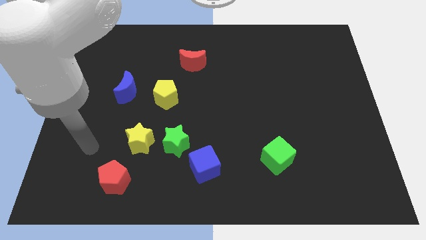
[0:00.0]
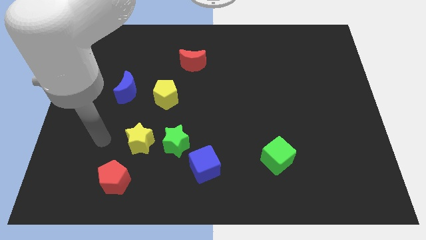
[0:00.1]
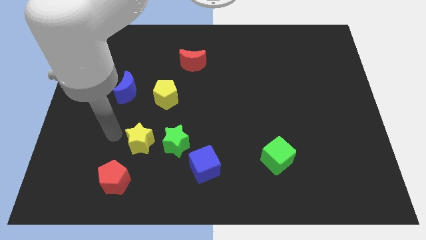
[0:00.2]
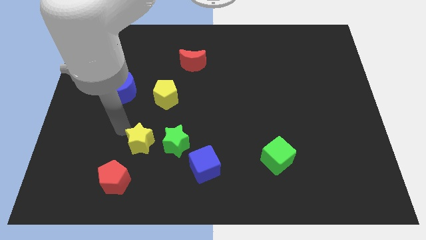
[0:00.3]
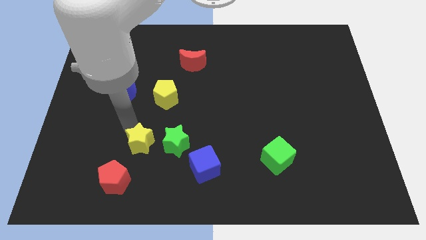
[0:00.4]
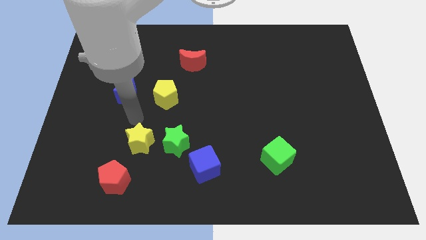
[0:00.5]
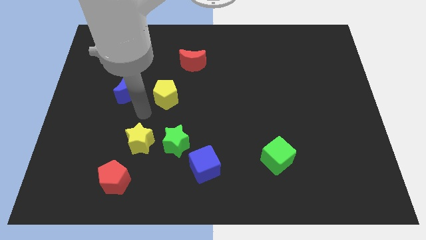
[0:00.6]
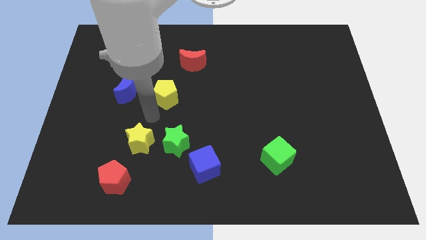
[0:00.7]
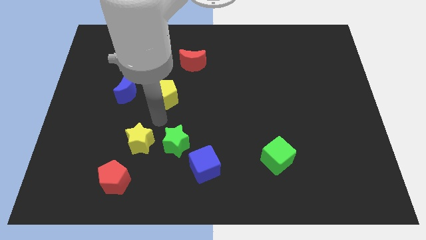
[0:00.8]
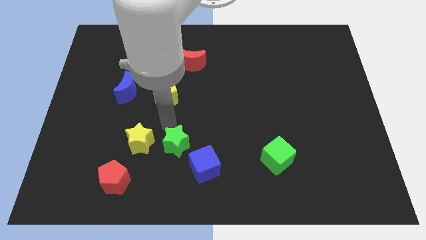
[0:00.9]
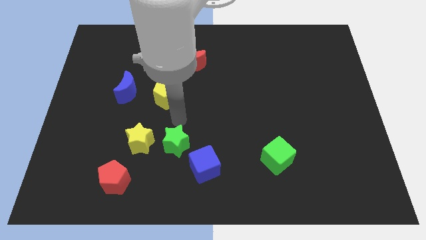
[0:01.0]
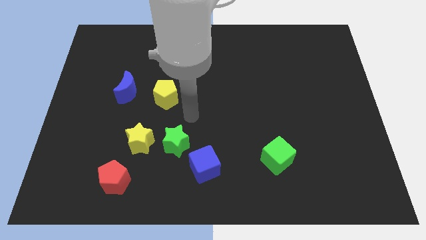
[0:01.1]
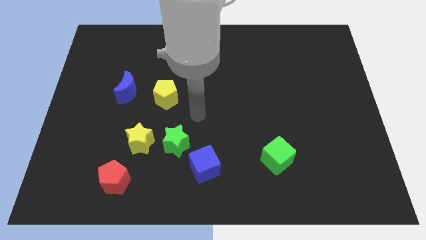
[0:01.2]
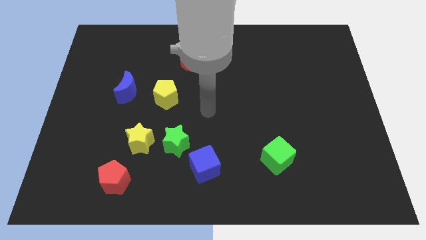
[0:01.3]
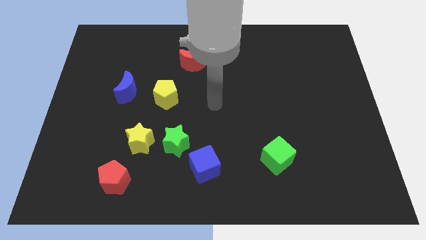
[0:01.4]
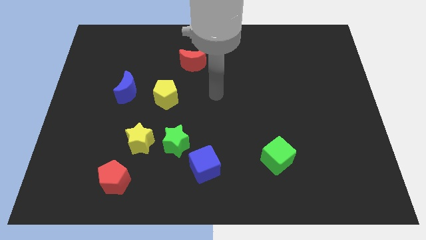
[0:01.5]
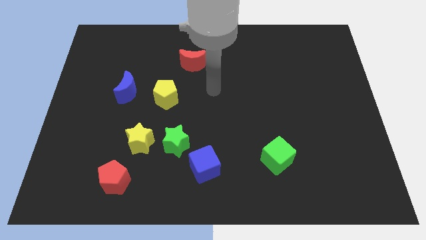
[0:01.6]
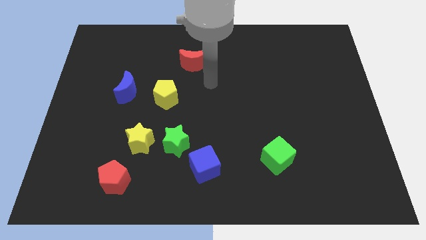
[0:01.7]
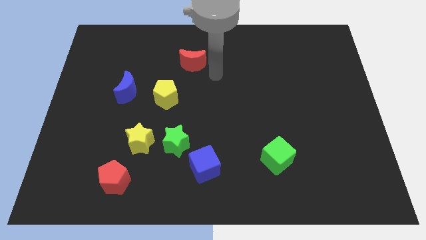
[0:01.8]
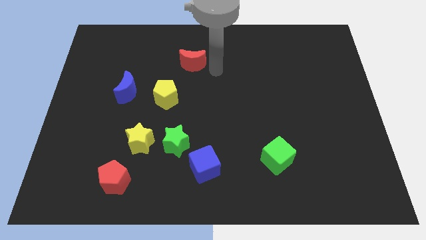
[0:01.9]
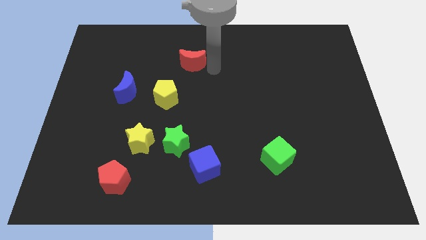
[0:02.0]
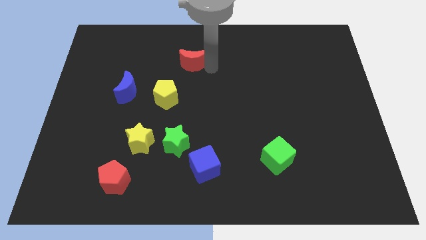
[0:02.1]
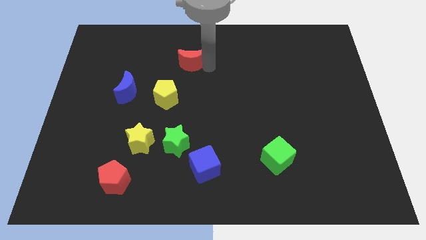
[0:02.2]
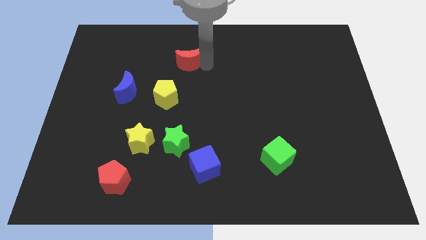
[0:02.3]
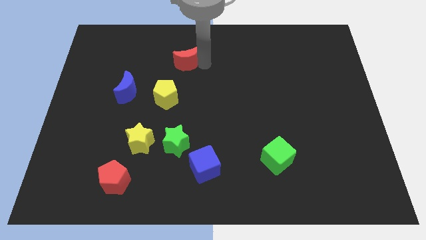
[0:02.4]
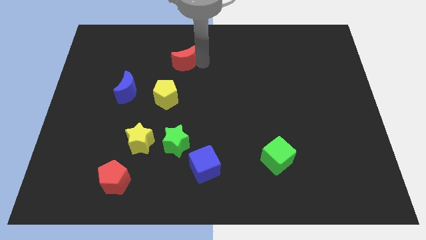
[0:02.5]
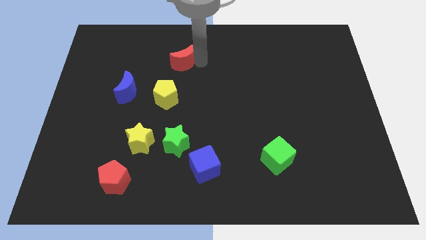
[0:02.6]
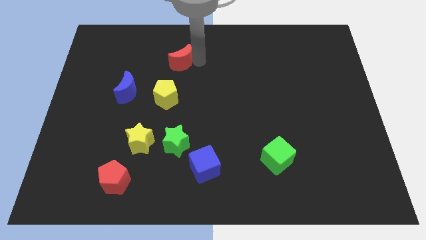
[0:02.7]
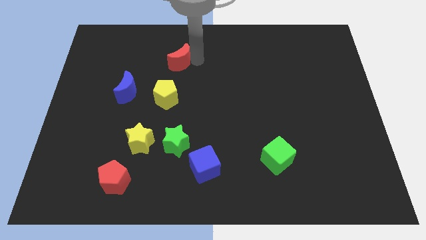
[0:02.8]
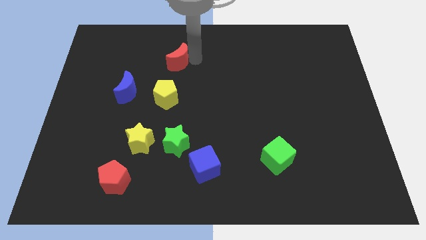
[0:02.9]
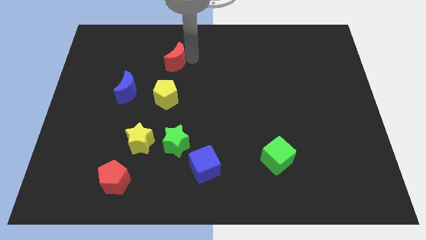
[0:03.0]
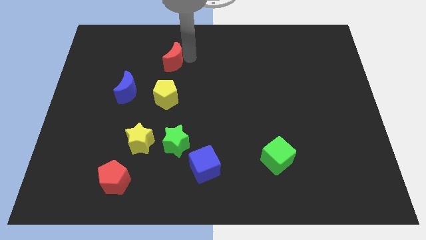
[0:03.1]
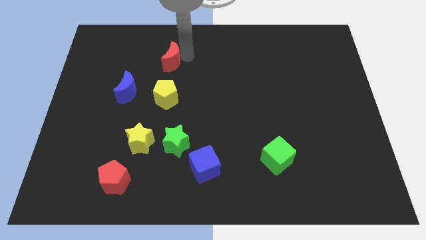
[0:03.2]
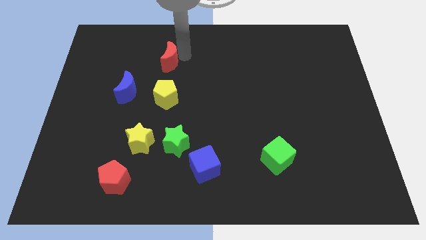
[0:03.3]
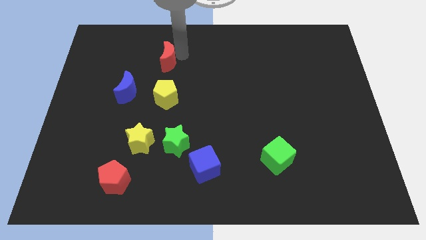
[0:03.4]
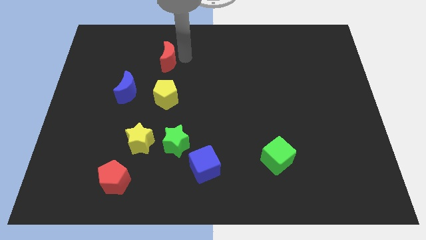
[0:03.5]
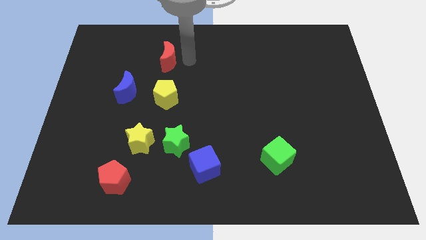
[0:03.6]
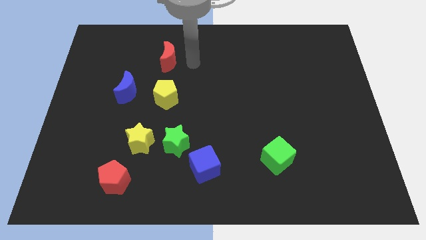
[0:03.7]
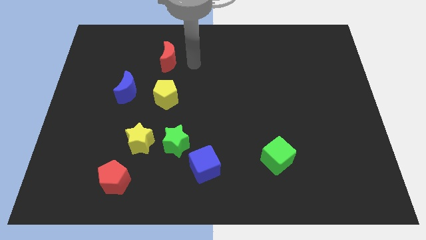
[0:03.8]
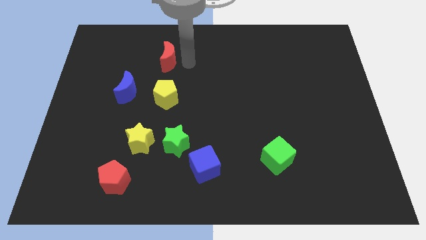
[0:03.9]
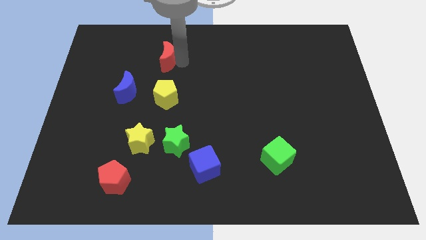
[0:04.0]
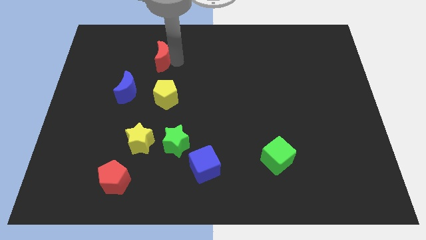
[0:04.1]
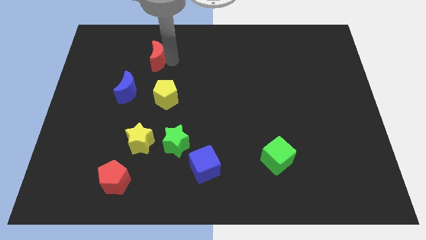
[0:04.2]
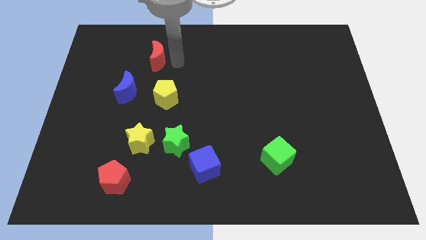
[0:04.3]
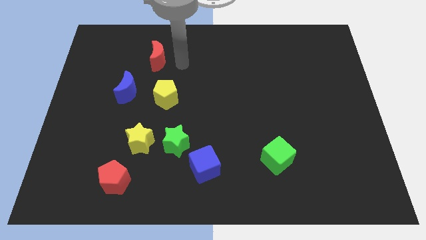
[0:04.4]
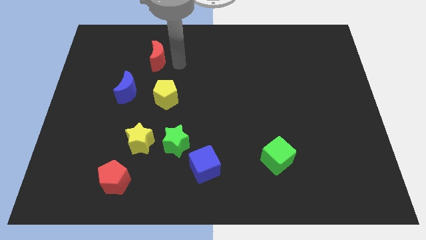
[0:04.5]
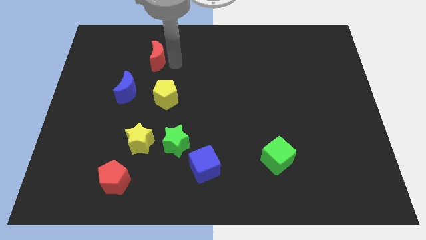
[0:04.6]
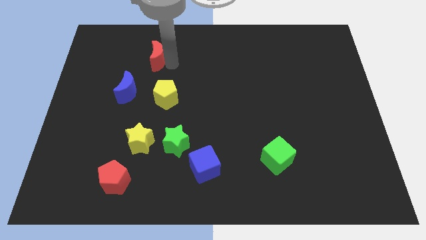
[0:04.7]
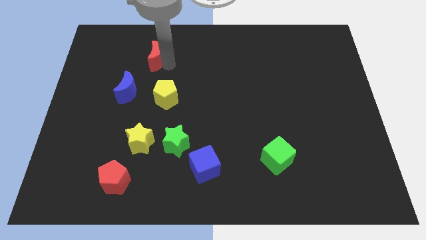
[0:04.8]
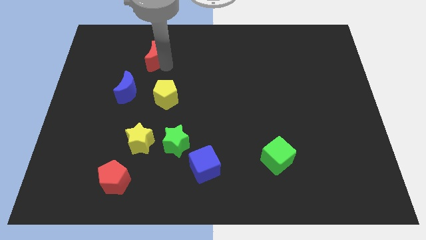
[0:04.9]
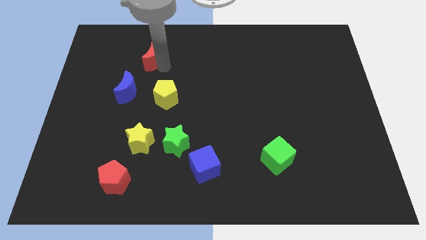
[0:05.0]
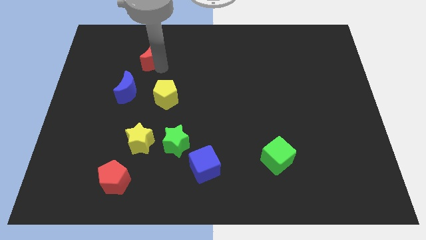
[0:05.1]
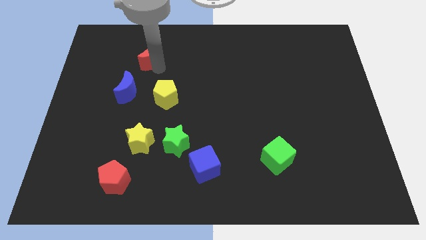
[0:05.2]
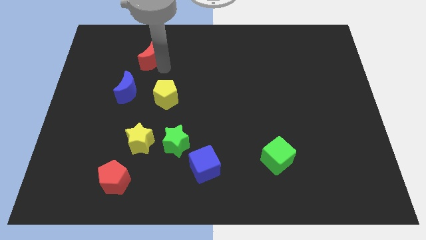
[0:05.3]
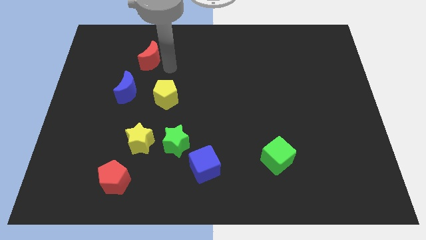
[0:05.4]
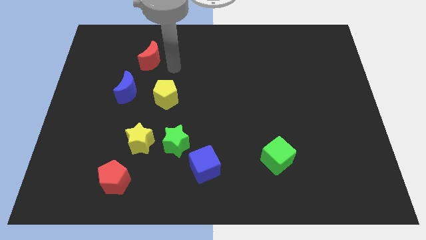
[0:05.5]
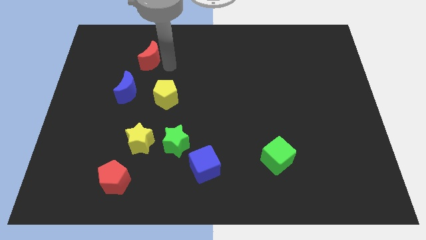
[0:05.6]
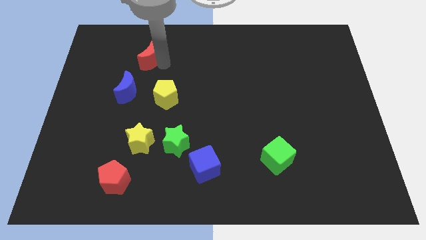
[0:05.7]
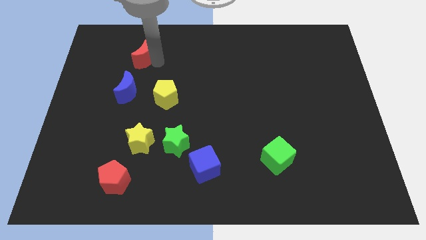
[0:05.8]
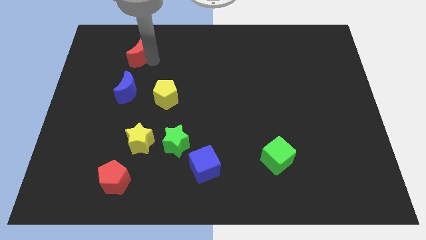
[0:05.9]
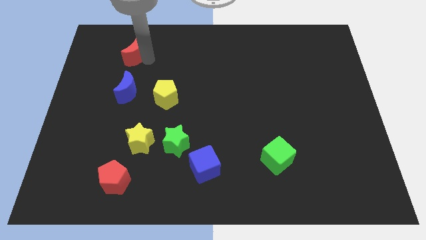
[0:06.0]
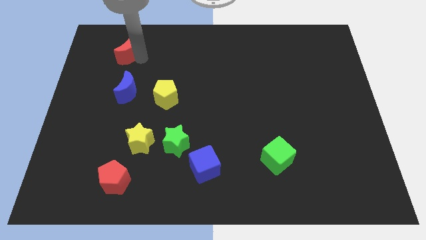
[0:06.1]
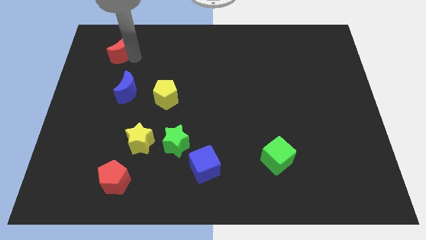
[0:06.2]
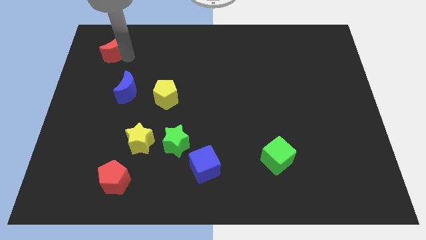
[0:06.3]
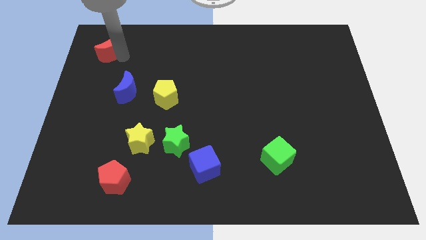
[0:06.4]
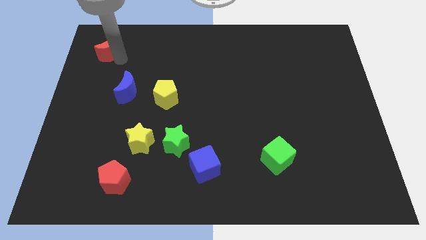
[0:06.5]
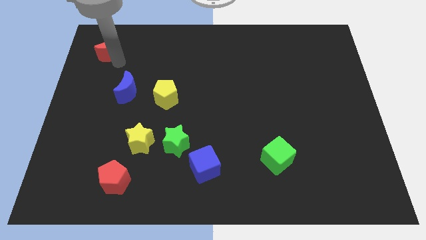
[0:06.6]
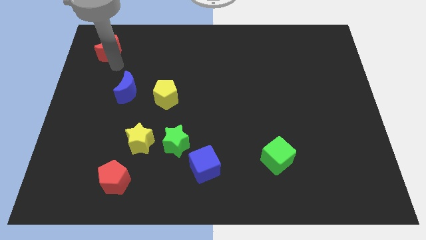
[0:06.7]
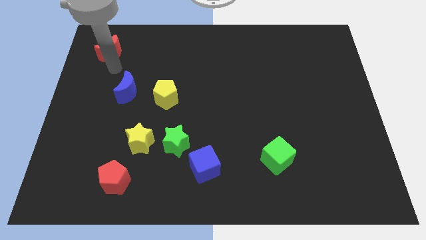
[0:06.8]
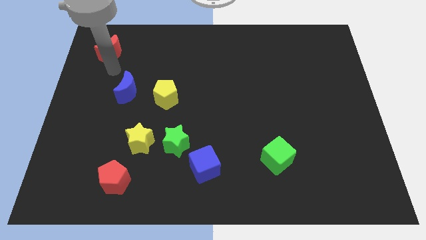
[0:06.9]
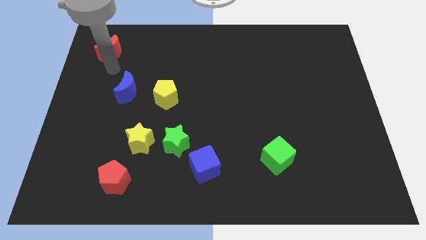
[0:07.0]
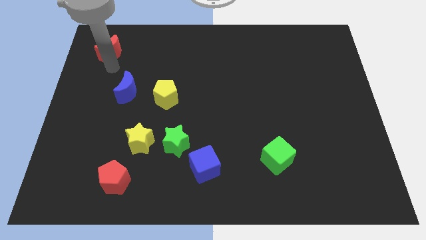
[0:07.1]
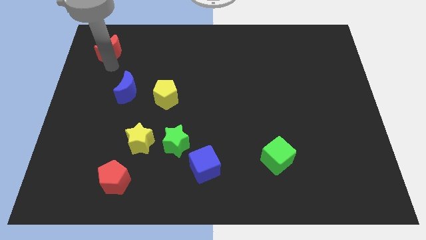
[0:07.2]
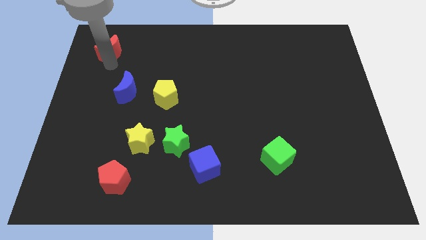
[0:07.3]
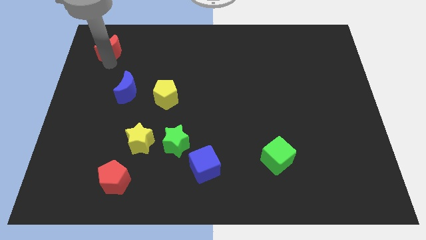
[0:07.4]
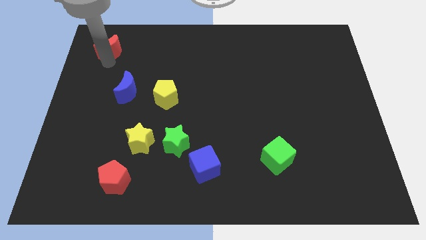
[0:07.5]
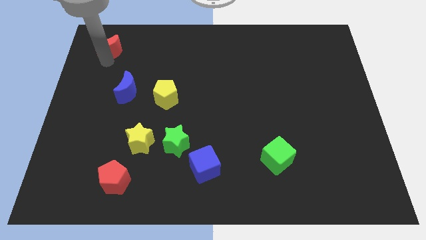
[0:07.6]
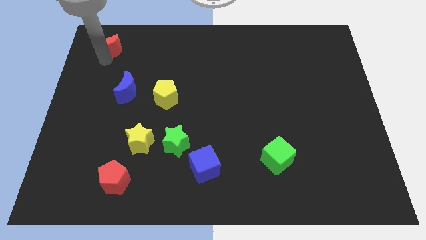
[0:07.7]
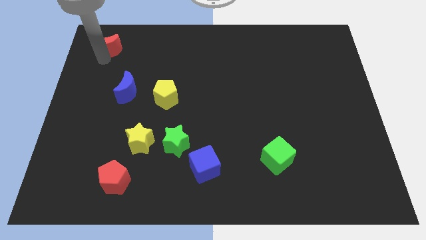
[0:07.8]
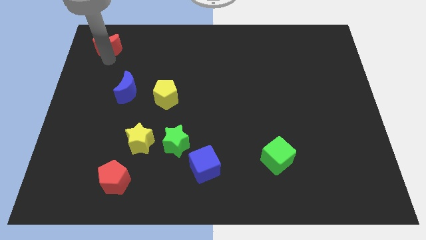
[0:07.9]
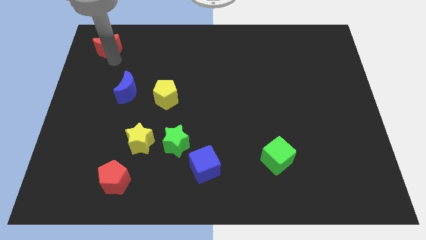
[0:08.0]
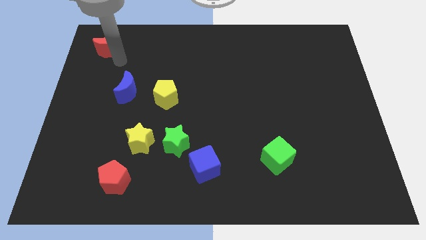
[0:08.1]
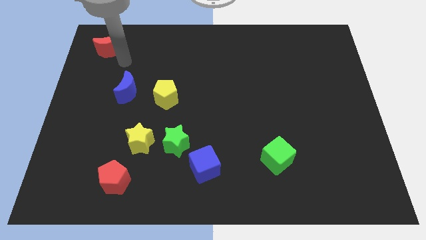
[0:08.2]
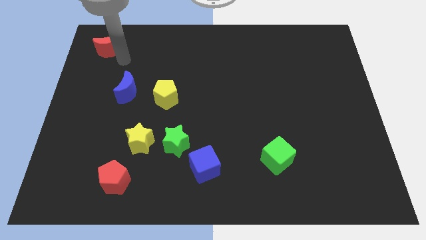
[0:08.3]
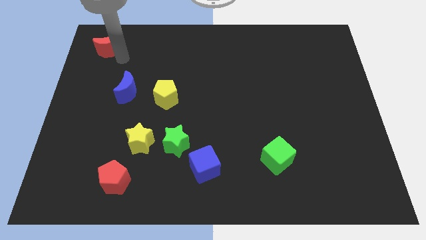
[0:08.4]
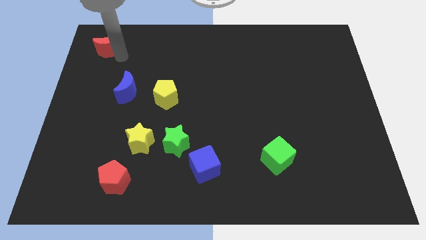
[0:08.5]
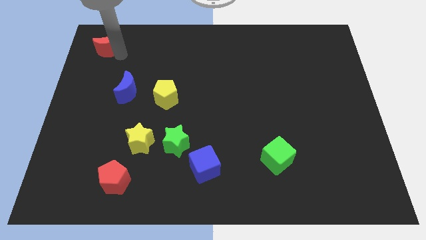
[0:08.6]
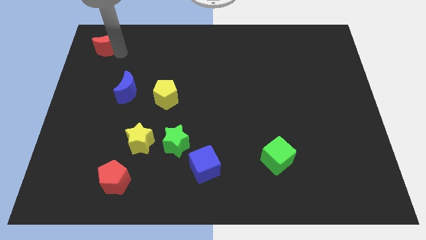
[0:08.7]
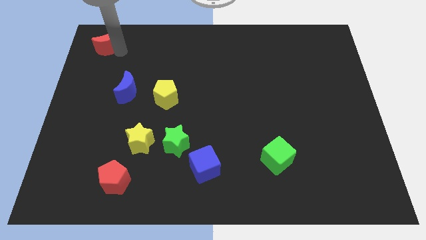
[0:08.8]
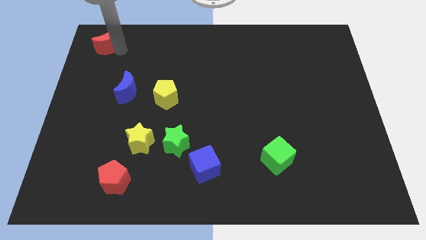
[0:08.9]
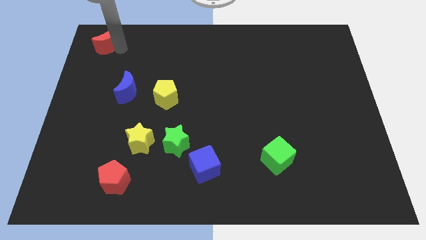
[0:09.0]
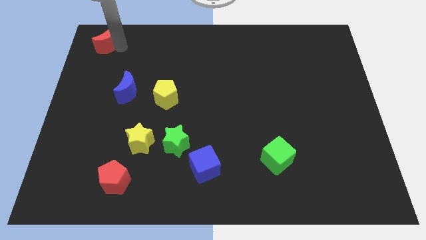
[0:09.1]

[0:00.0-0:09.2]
move the red moon to the top left of the board
